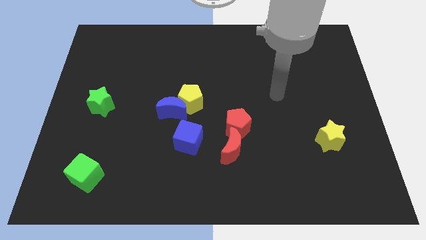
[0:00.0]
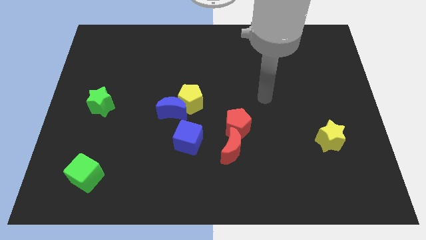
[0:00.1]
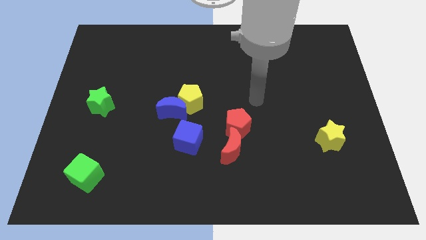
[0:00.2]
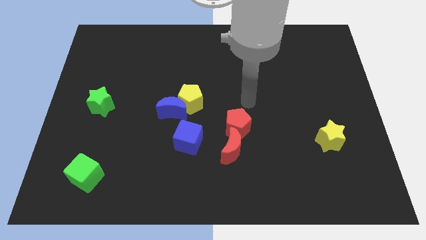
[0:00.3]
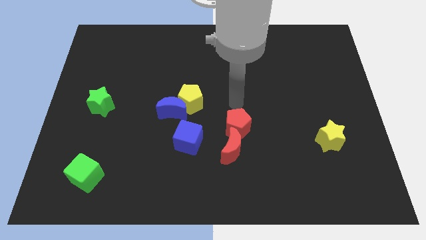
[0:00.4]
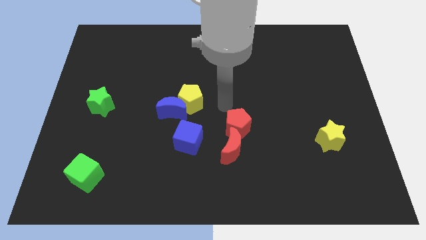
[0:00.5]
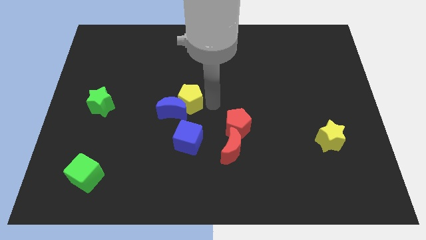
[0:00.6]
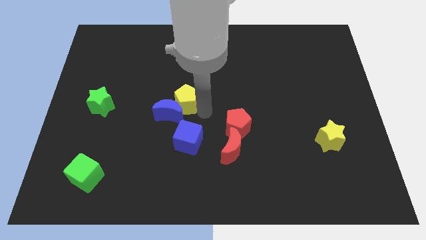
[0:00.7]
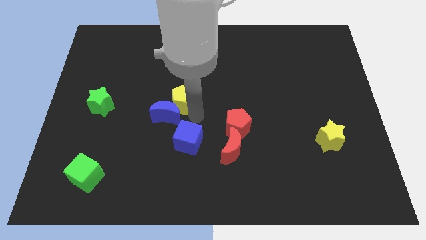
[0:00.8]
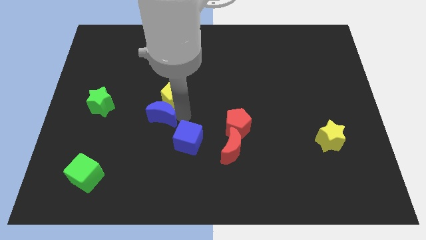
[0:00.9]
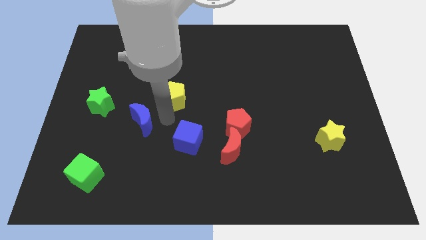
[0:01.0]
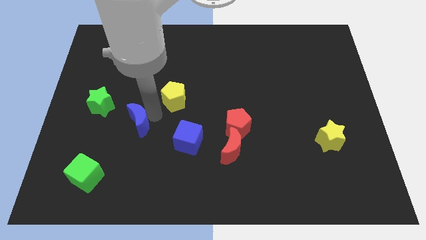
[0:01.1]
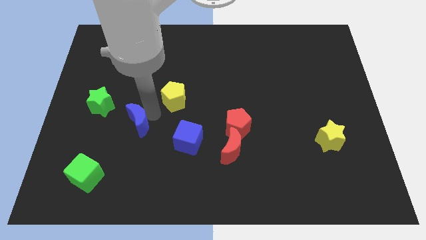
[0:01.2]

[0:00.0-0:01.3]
pull the yellow pentagon apart from the blue moon

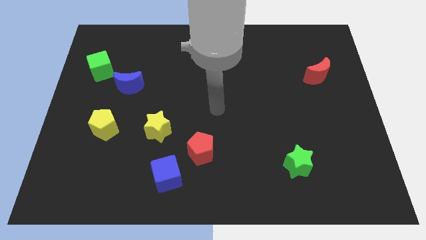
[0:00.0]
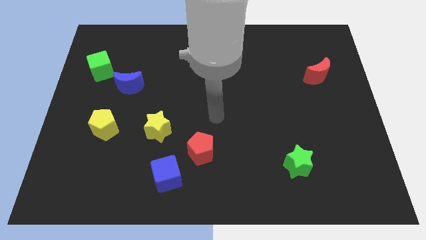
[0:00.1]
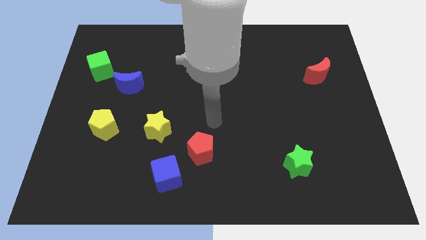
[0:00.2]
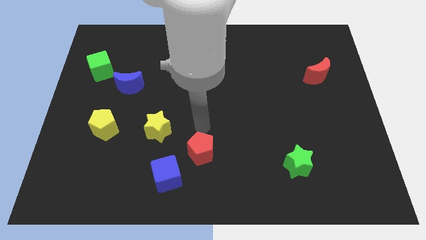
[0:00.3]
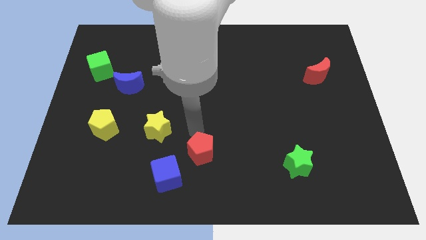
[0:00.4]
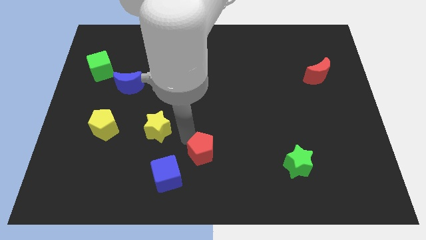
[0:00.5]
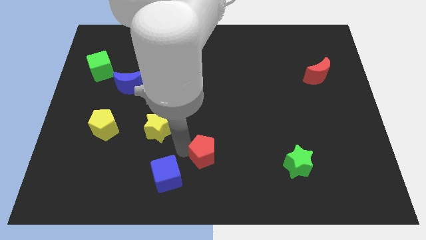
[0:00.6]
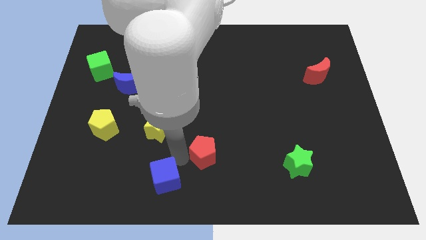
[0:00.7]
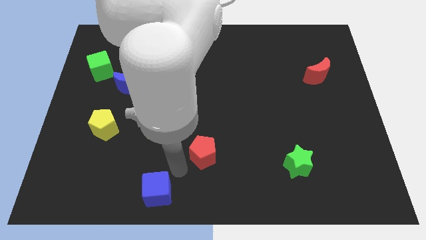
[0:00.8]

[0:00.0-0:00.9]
move the red pentagon away from the blue cube

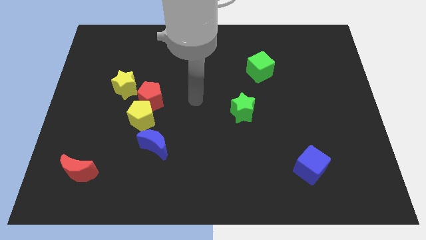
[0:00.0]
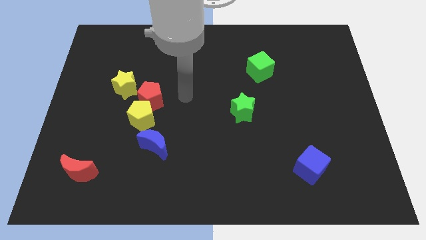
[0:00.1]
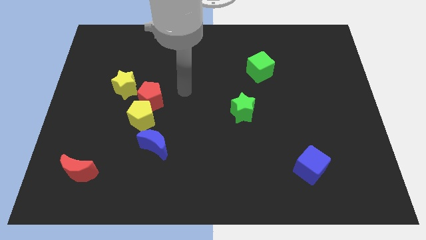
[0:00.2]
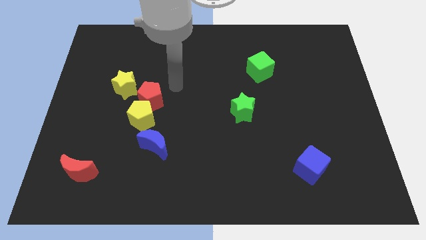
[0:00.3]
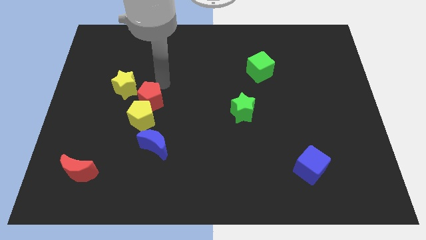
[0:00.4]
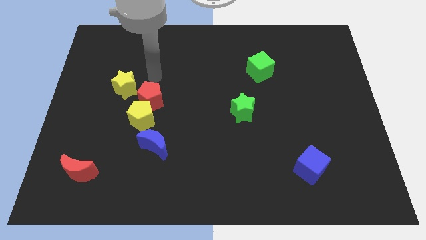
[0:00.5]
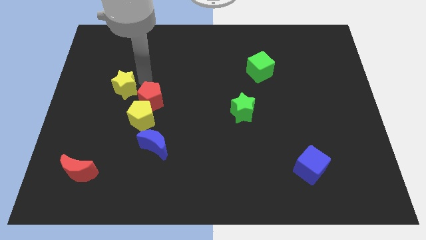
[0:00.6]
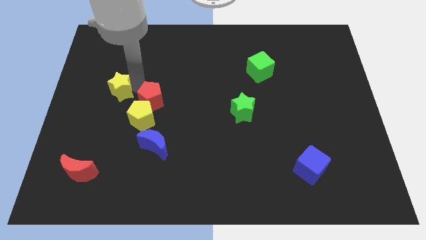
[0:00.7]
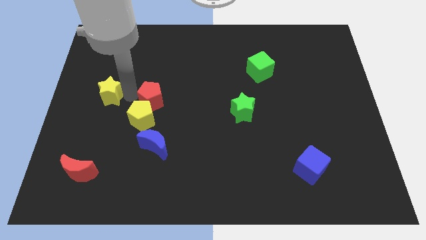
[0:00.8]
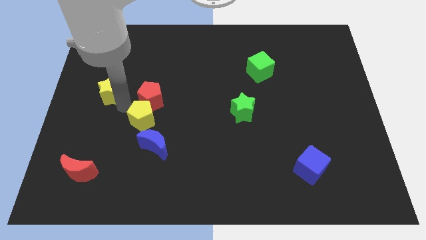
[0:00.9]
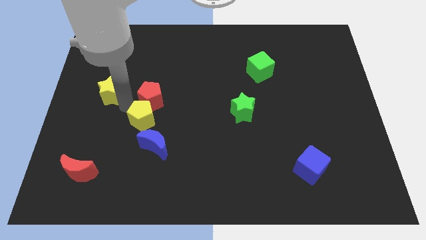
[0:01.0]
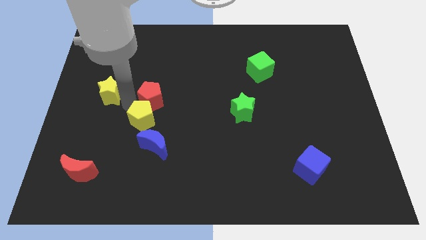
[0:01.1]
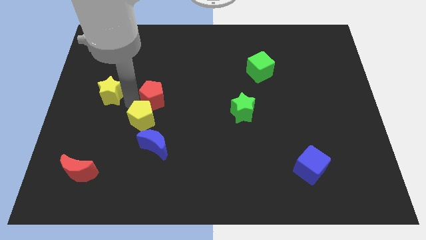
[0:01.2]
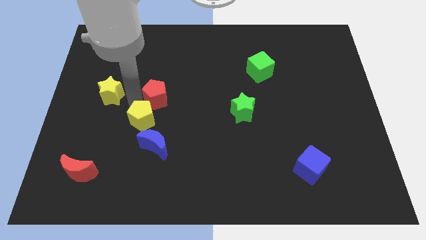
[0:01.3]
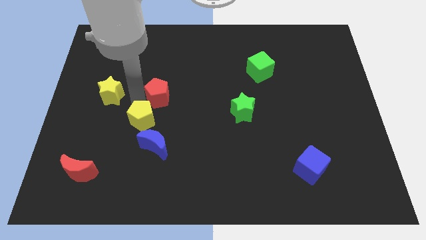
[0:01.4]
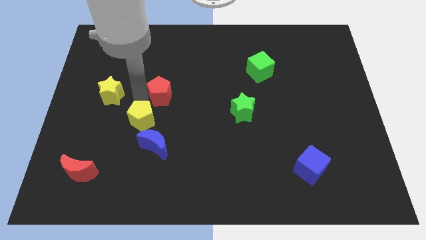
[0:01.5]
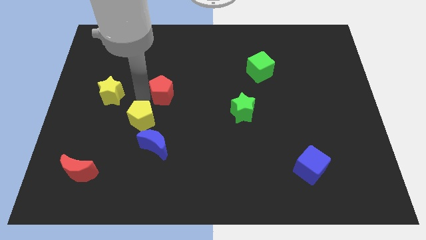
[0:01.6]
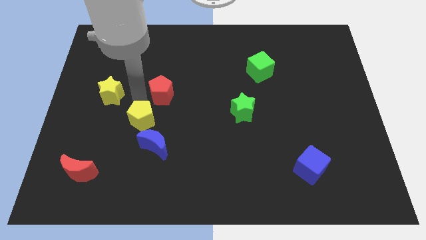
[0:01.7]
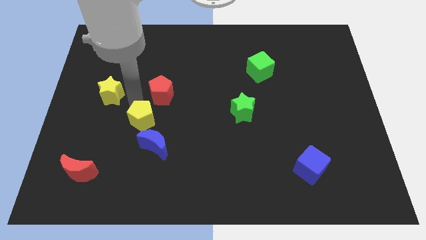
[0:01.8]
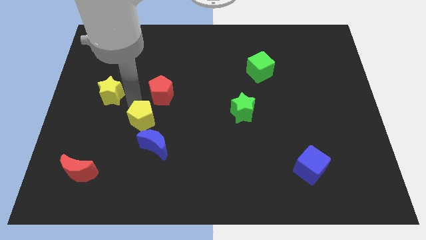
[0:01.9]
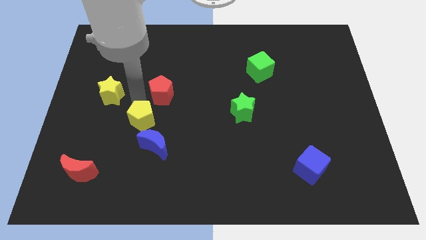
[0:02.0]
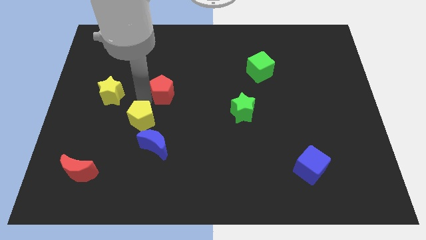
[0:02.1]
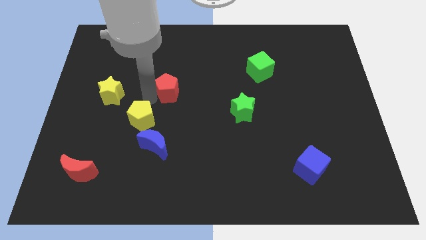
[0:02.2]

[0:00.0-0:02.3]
move the red pentagon away from the yellow pentagon and yellow star

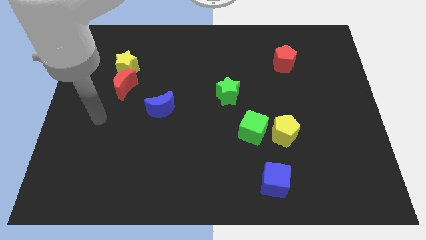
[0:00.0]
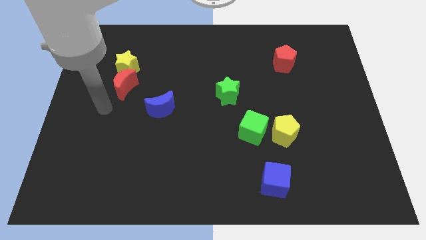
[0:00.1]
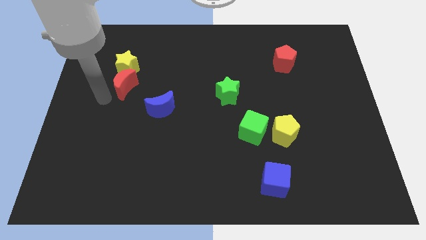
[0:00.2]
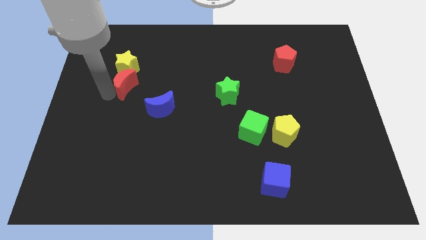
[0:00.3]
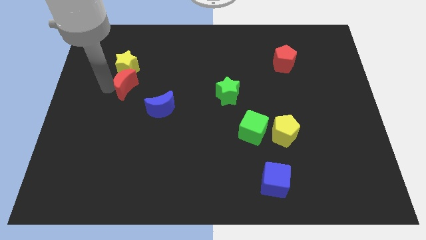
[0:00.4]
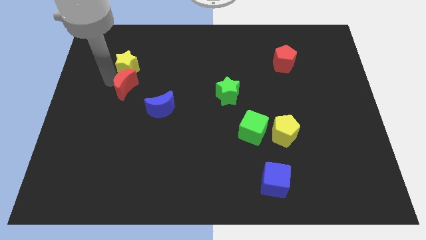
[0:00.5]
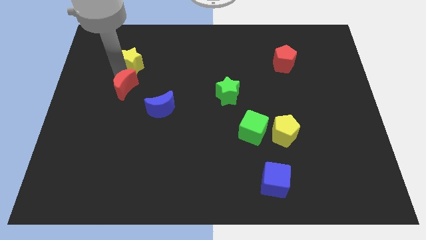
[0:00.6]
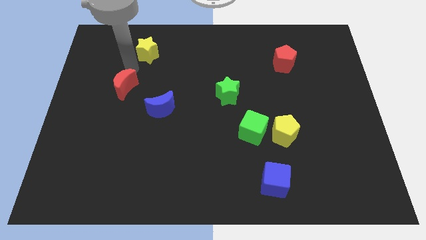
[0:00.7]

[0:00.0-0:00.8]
move the red moon away from the yellow star

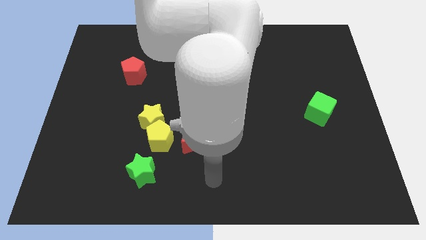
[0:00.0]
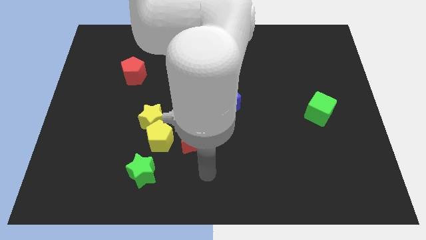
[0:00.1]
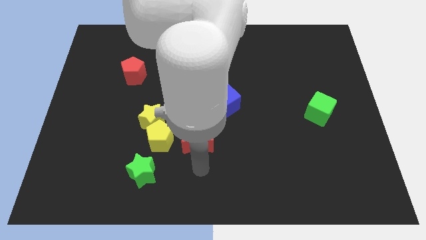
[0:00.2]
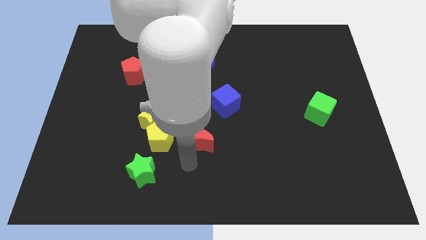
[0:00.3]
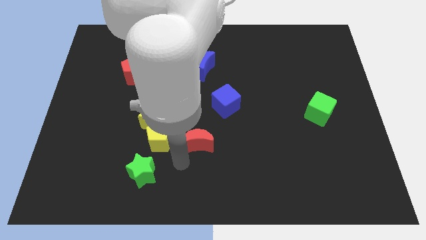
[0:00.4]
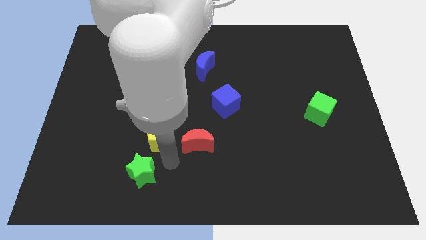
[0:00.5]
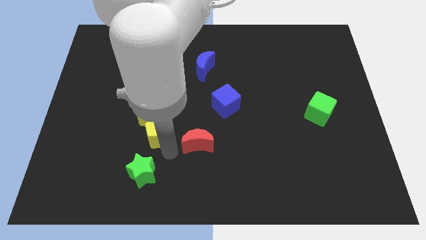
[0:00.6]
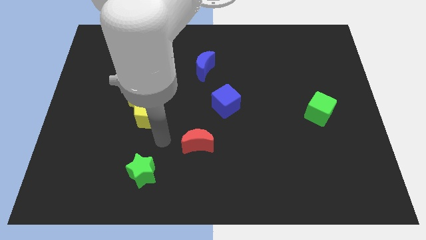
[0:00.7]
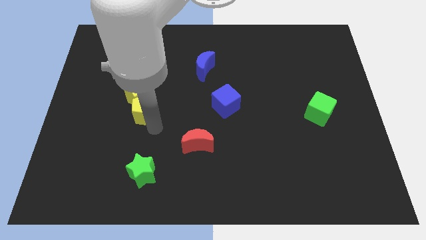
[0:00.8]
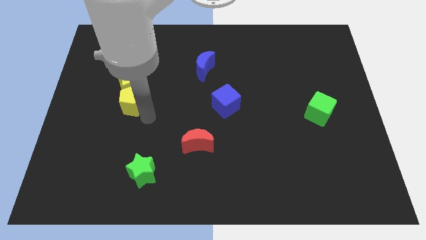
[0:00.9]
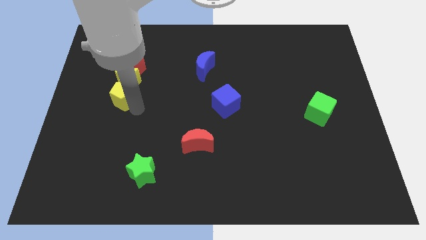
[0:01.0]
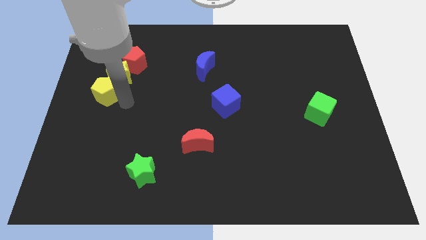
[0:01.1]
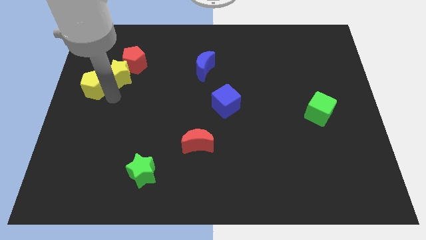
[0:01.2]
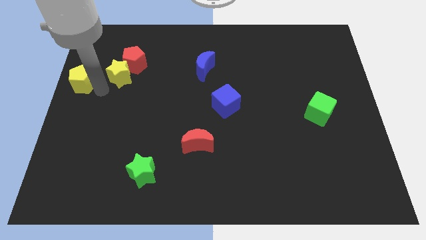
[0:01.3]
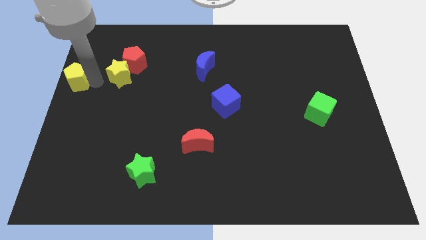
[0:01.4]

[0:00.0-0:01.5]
separate the yellow star from the yellow pentagon

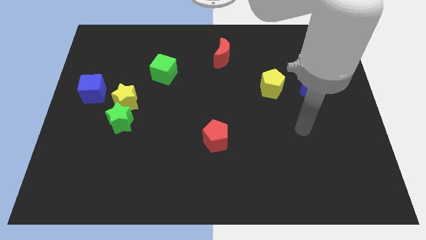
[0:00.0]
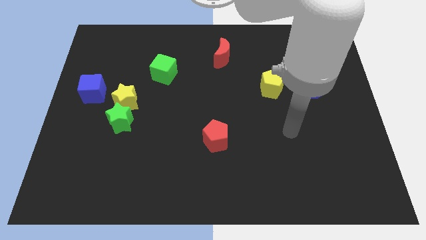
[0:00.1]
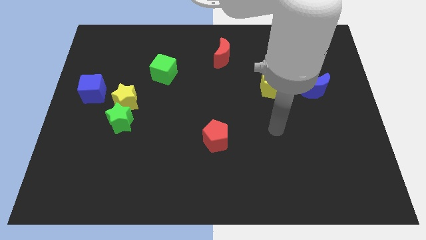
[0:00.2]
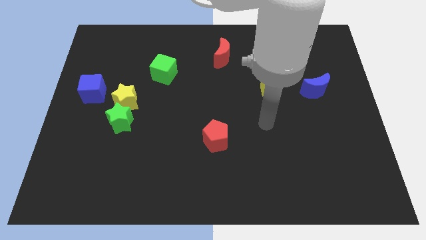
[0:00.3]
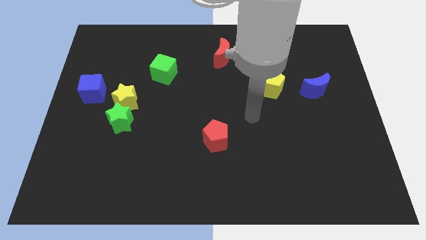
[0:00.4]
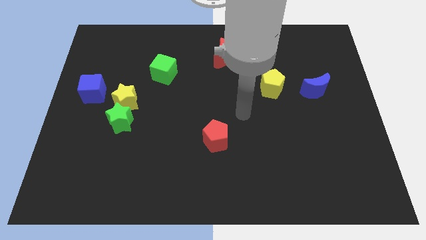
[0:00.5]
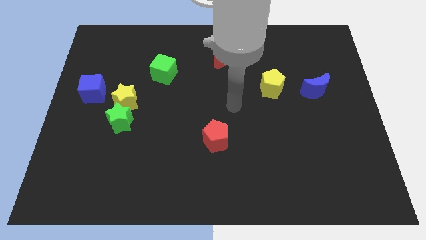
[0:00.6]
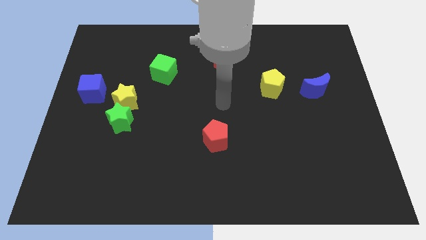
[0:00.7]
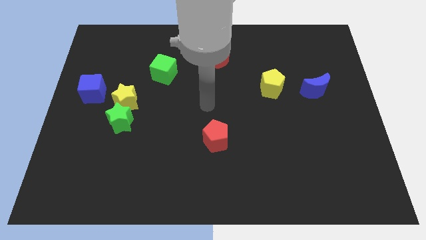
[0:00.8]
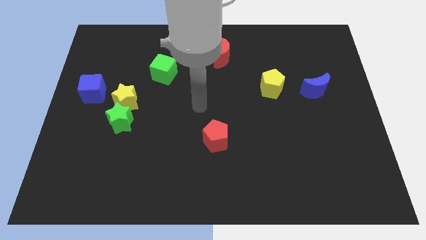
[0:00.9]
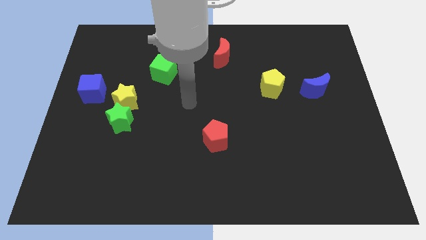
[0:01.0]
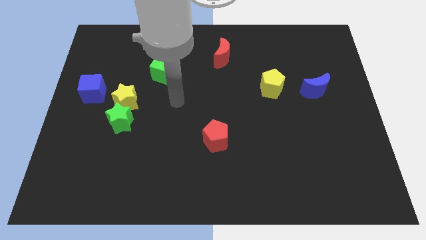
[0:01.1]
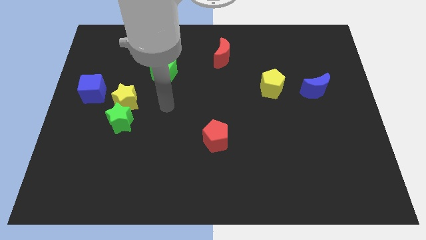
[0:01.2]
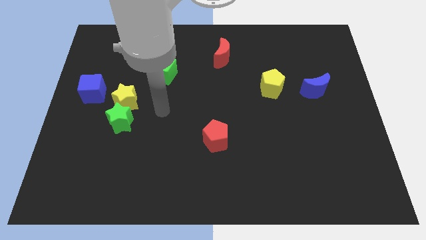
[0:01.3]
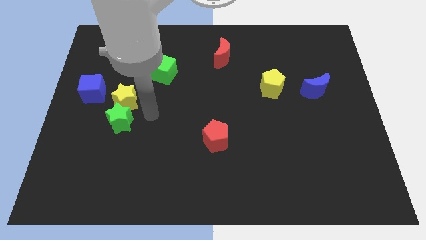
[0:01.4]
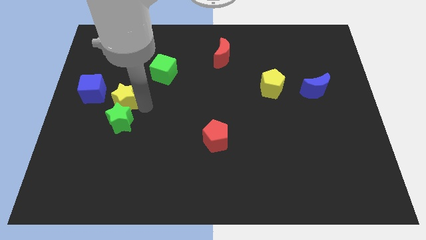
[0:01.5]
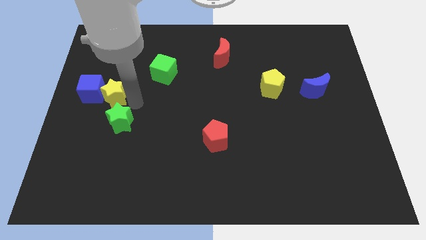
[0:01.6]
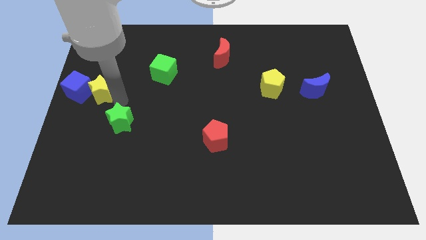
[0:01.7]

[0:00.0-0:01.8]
pull the green star apart from the yellow star

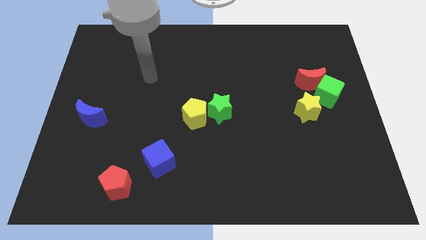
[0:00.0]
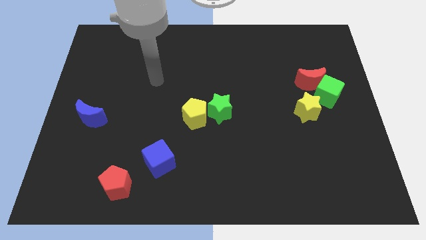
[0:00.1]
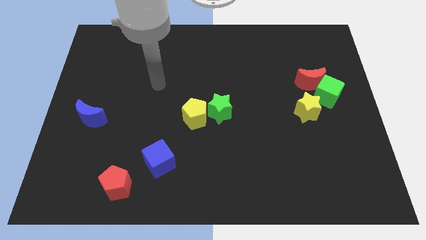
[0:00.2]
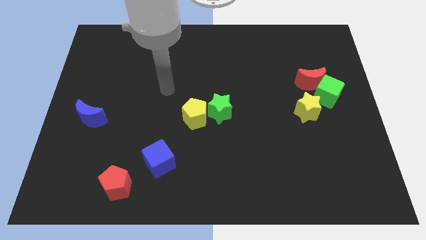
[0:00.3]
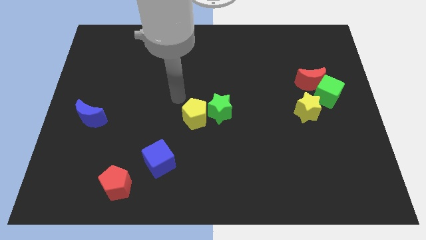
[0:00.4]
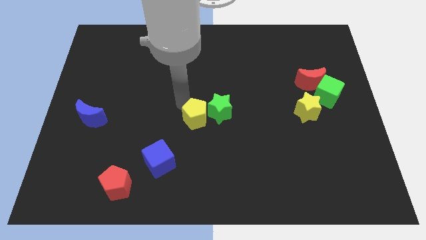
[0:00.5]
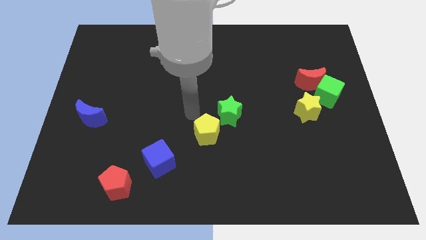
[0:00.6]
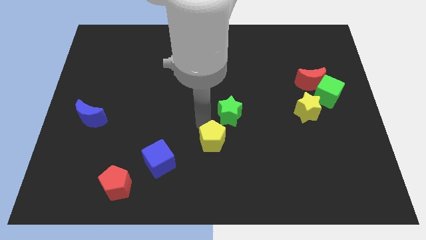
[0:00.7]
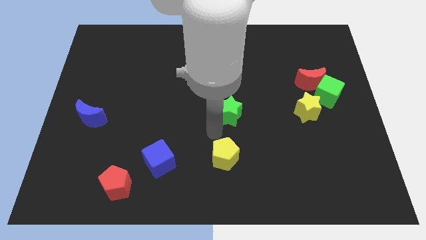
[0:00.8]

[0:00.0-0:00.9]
pull the green star apart from the yellow pentagon

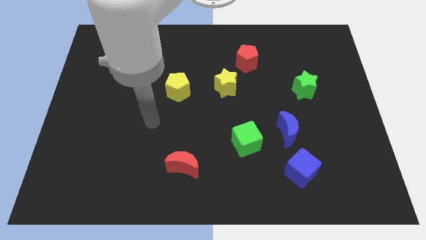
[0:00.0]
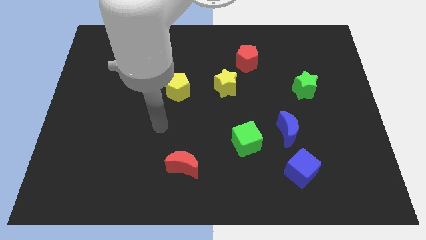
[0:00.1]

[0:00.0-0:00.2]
move the blue cube away from the blue moon
